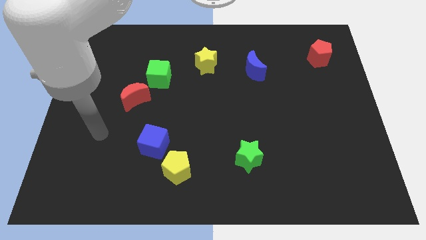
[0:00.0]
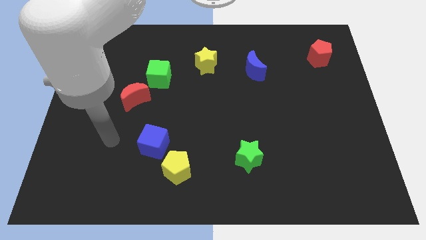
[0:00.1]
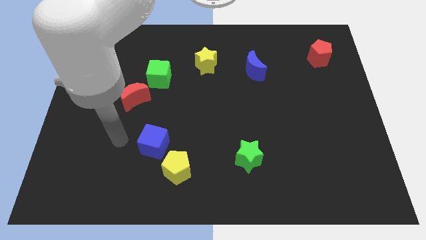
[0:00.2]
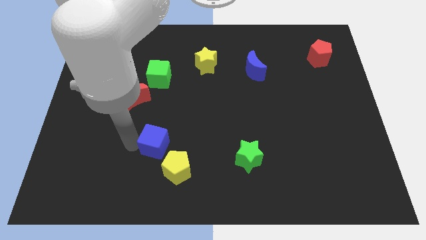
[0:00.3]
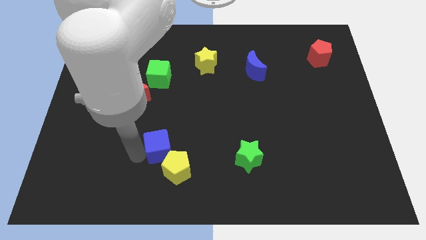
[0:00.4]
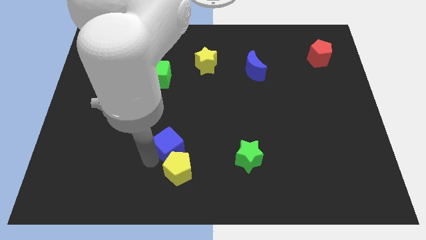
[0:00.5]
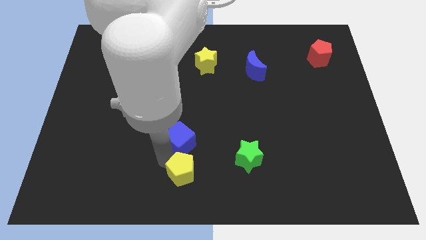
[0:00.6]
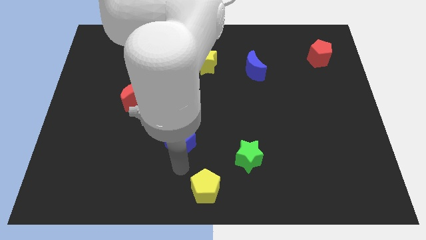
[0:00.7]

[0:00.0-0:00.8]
separate the blue cube from the yellow pentagon

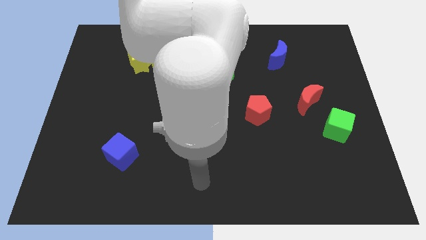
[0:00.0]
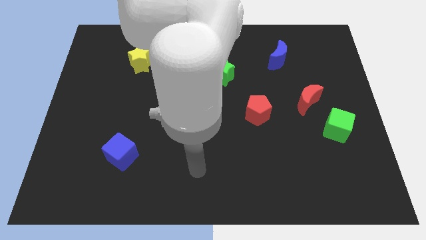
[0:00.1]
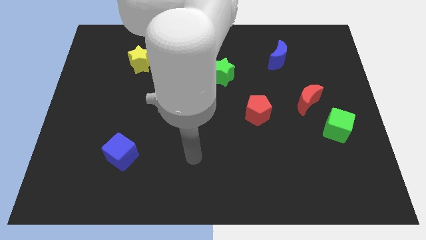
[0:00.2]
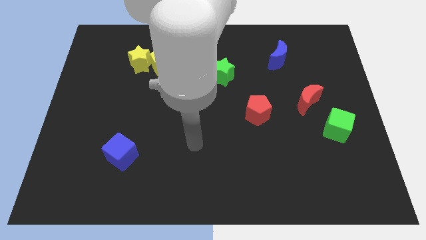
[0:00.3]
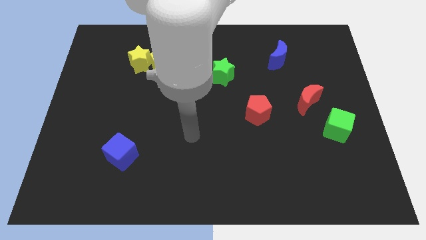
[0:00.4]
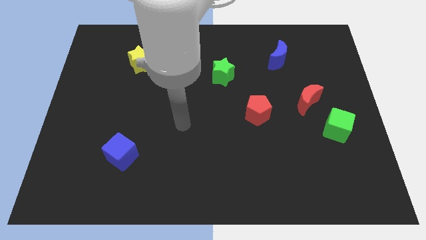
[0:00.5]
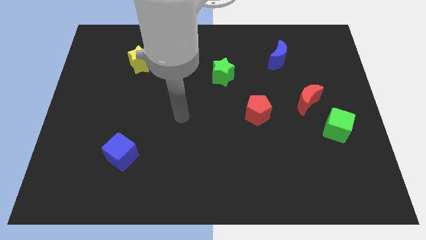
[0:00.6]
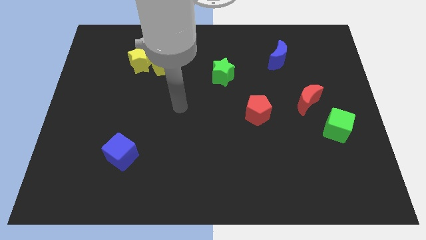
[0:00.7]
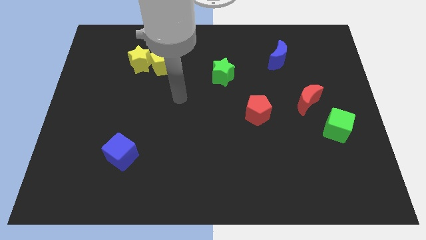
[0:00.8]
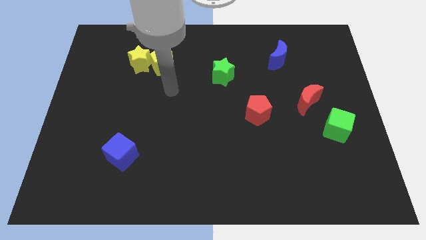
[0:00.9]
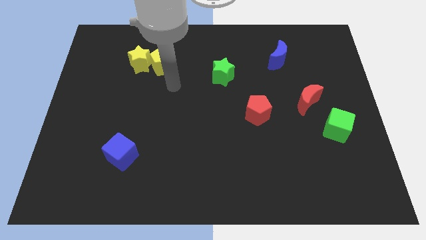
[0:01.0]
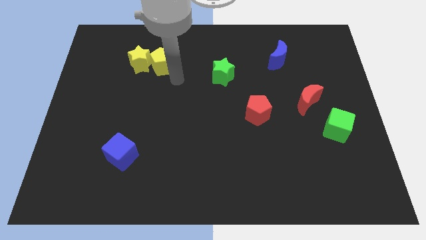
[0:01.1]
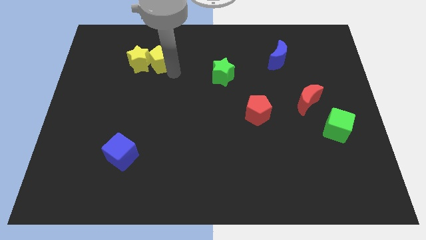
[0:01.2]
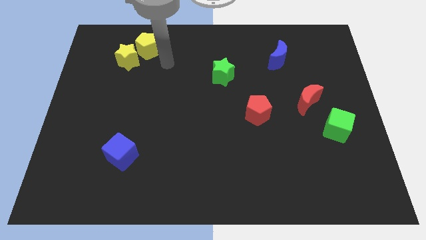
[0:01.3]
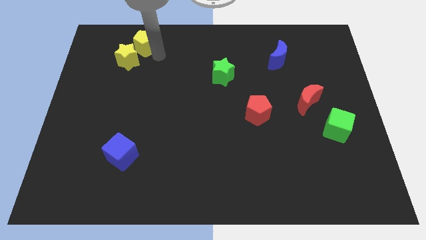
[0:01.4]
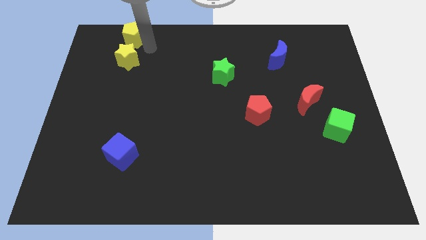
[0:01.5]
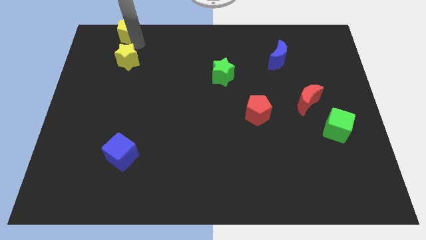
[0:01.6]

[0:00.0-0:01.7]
pull the yellow star apart from the yellow pentagon

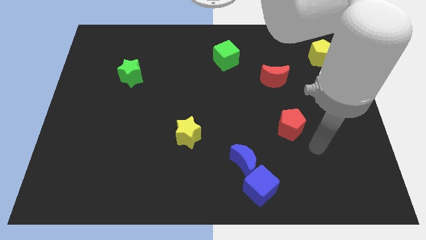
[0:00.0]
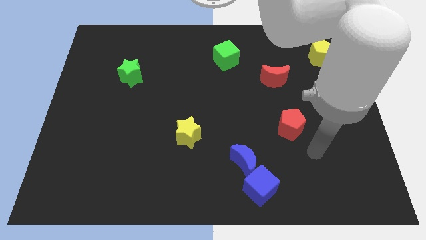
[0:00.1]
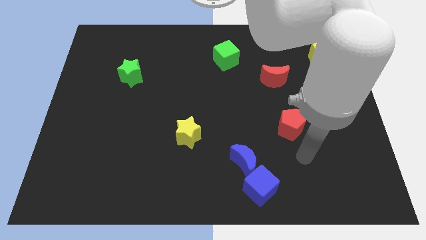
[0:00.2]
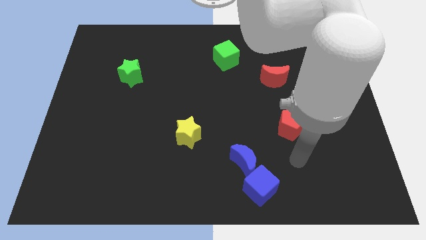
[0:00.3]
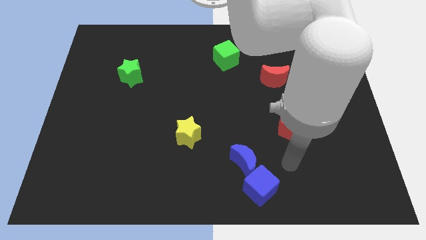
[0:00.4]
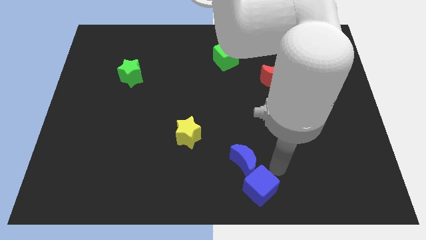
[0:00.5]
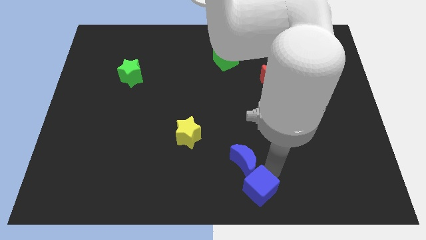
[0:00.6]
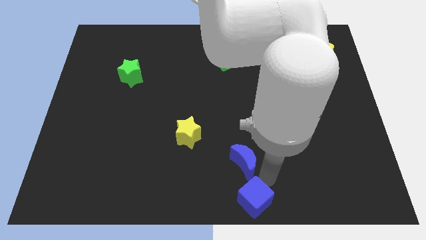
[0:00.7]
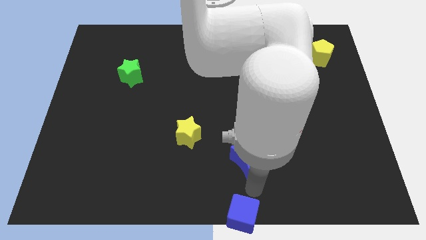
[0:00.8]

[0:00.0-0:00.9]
pull the blue moon apart from the blue cube

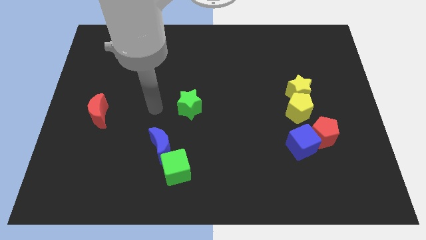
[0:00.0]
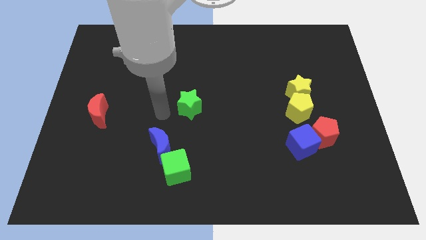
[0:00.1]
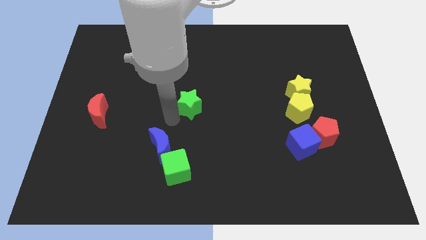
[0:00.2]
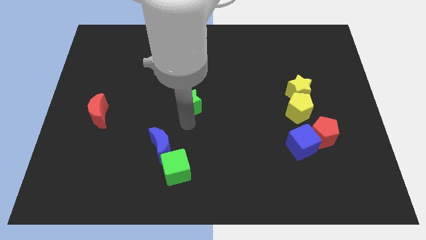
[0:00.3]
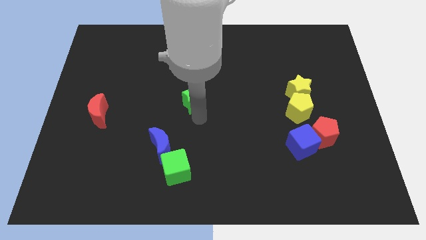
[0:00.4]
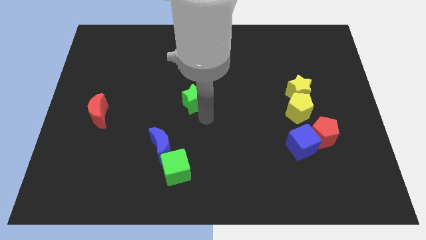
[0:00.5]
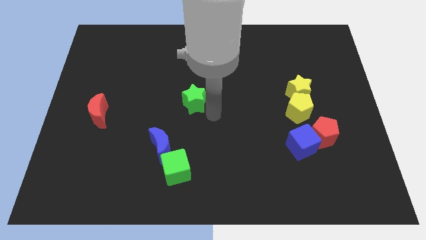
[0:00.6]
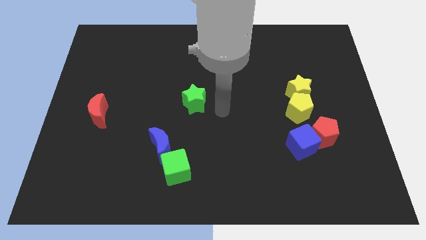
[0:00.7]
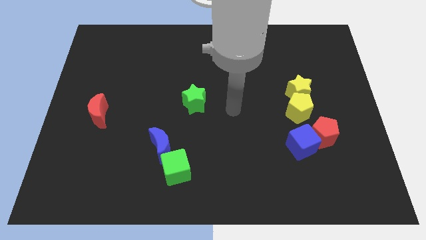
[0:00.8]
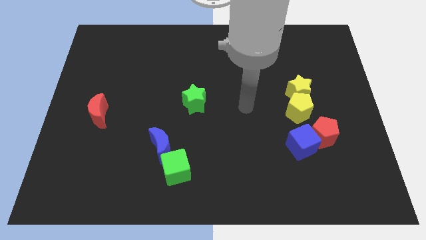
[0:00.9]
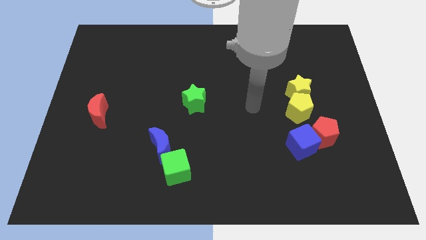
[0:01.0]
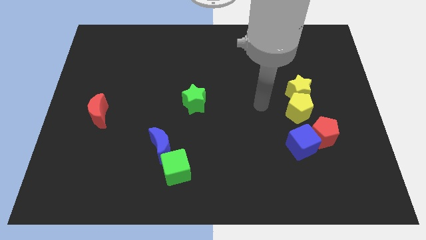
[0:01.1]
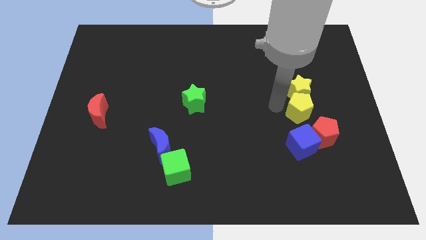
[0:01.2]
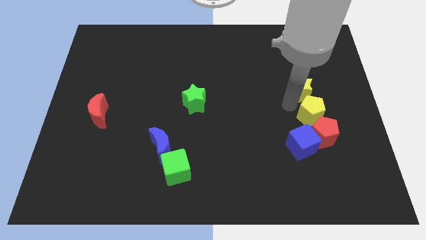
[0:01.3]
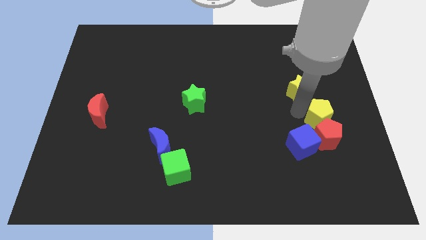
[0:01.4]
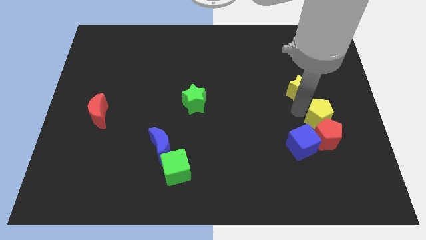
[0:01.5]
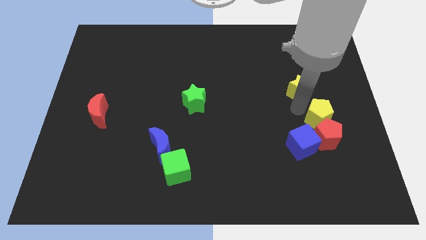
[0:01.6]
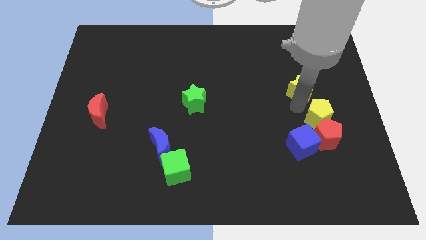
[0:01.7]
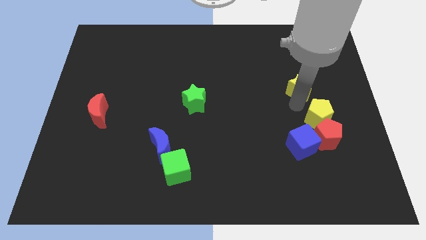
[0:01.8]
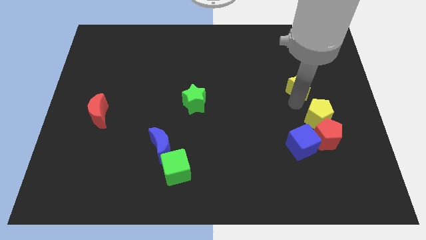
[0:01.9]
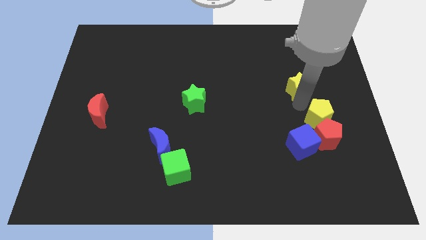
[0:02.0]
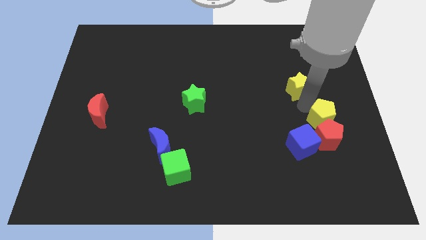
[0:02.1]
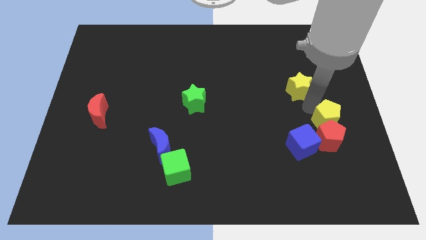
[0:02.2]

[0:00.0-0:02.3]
move the yellow star away from the yellow pentagon
